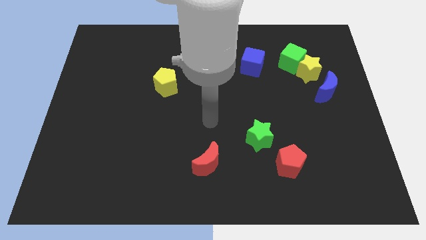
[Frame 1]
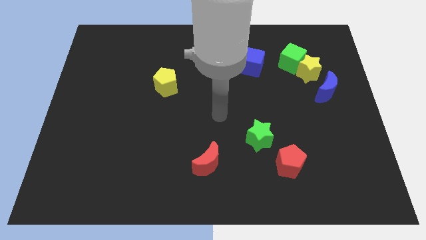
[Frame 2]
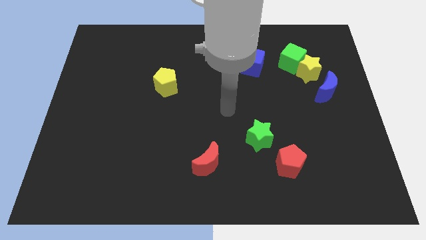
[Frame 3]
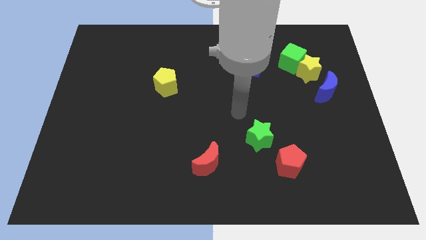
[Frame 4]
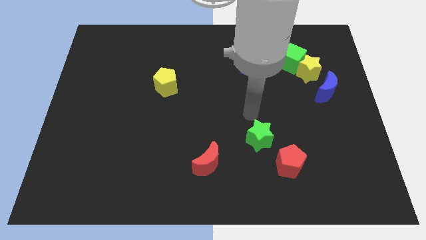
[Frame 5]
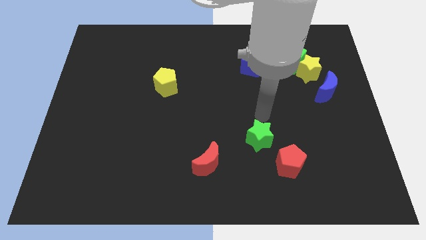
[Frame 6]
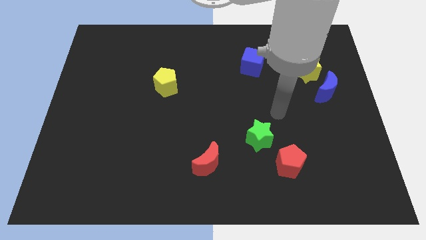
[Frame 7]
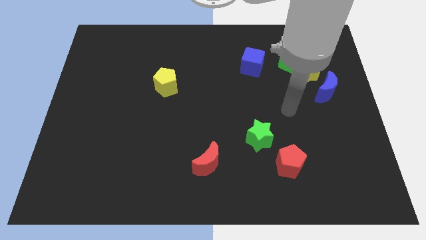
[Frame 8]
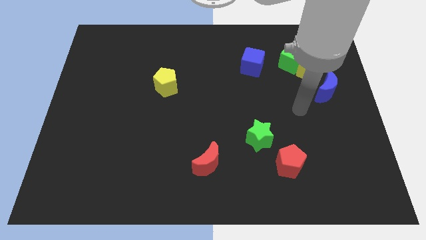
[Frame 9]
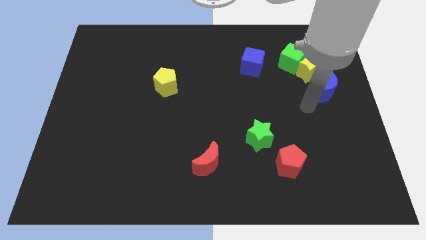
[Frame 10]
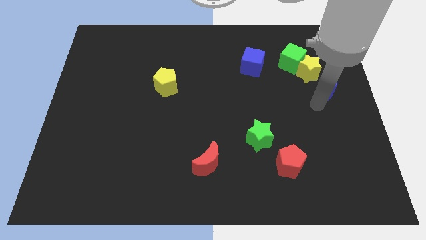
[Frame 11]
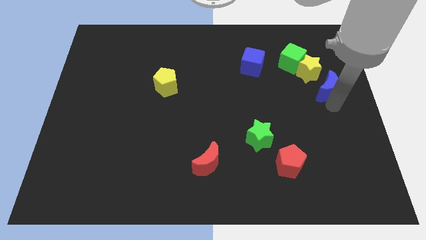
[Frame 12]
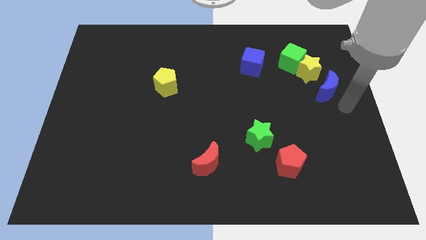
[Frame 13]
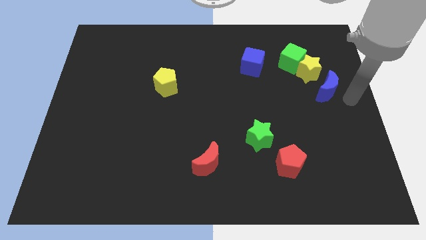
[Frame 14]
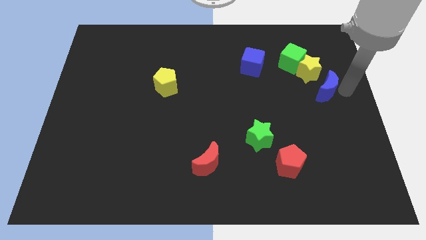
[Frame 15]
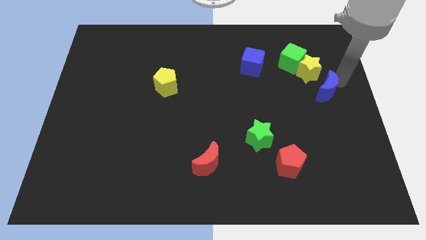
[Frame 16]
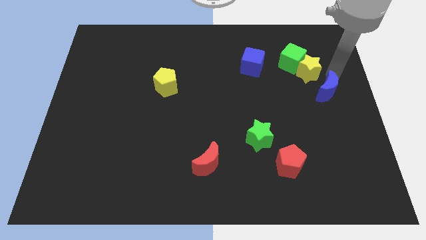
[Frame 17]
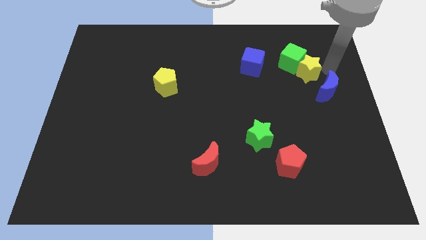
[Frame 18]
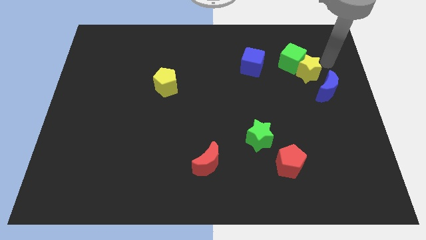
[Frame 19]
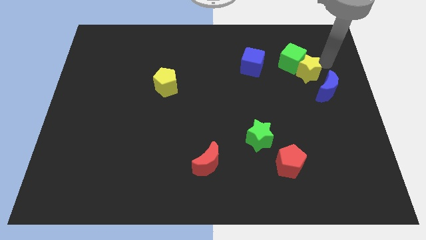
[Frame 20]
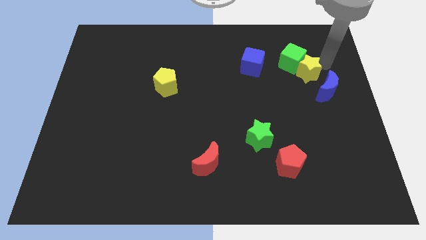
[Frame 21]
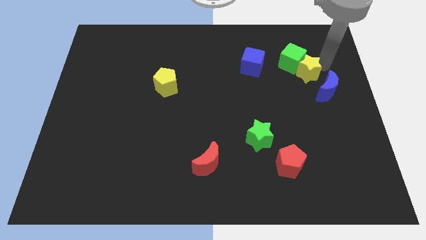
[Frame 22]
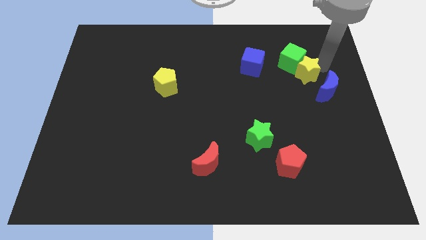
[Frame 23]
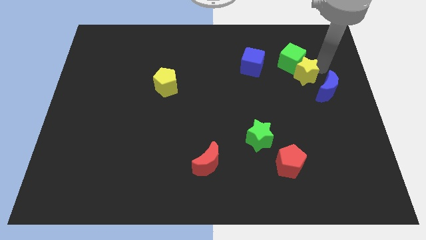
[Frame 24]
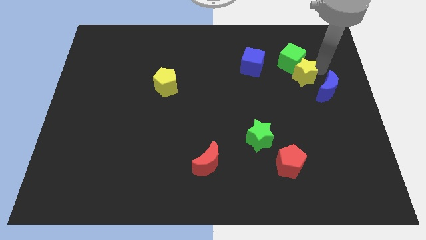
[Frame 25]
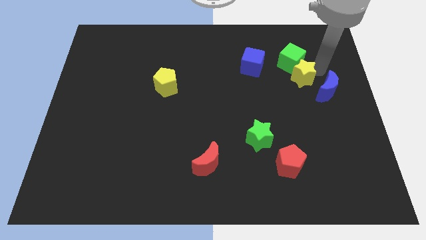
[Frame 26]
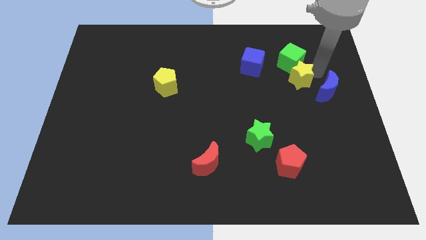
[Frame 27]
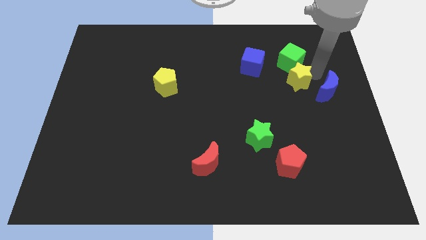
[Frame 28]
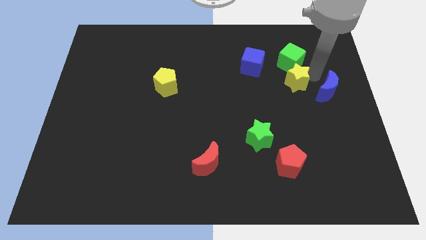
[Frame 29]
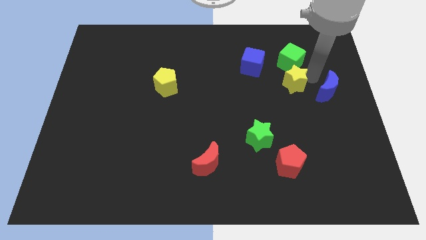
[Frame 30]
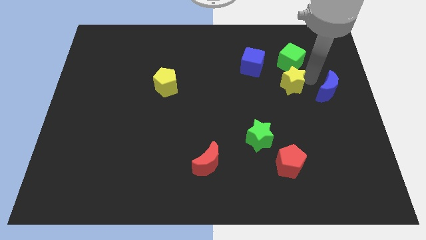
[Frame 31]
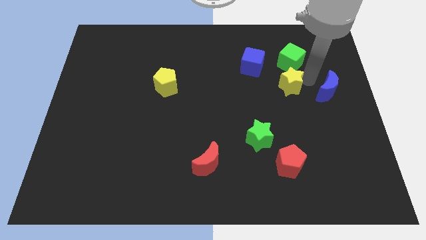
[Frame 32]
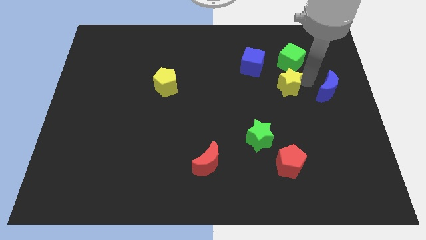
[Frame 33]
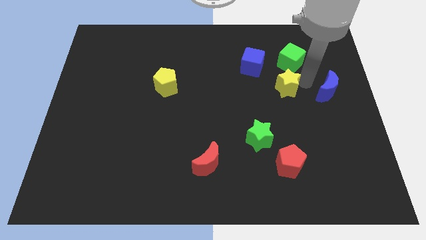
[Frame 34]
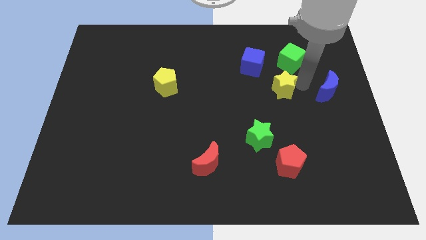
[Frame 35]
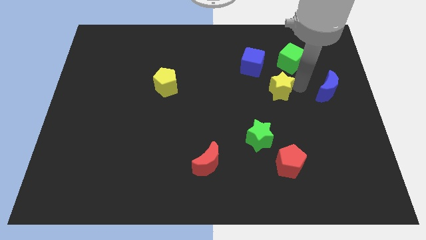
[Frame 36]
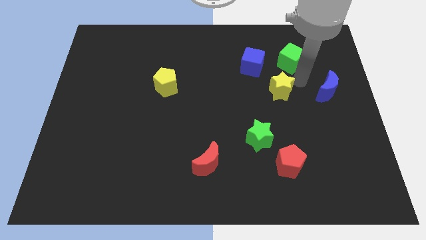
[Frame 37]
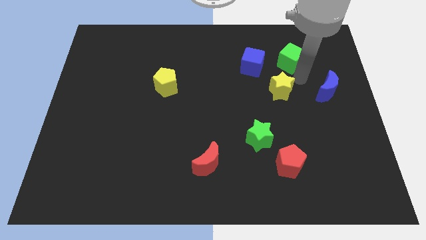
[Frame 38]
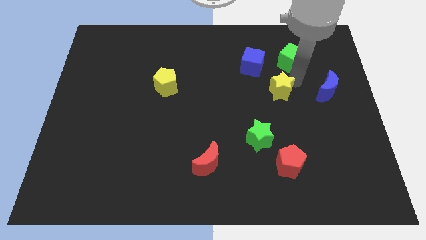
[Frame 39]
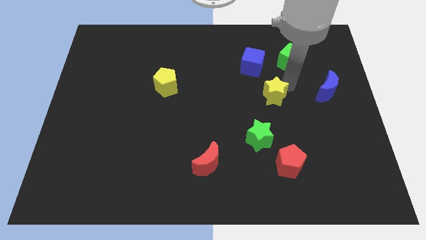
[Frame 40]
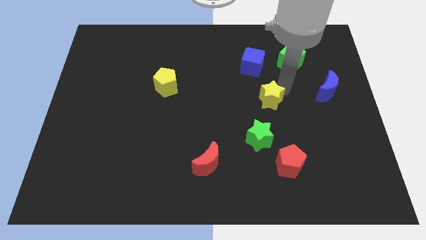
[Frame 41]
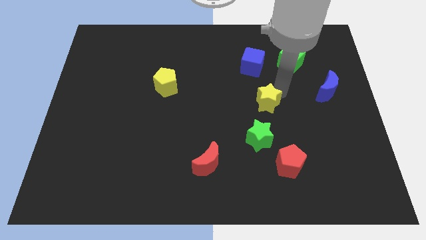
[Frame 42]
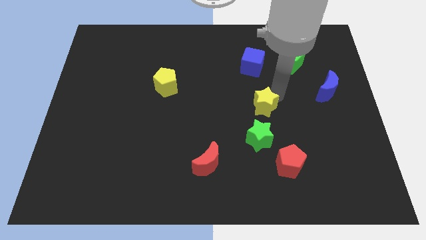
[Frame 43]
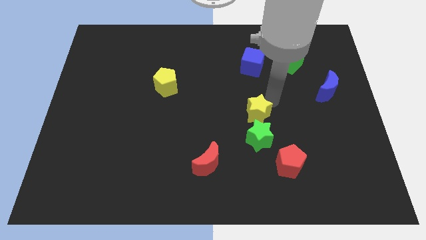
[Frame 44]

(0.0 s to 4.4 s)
put the yellow star diagonally up and to the left of the green star

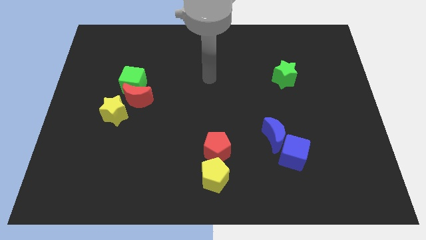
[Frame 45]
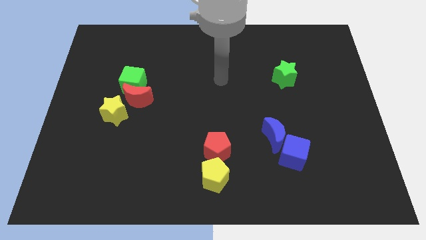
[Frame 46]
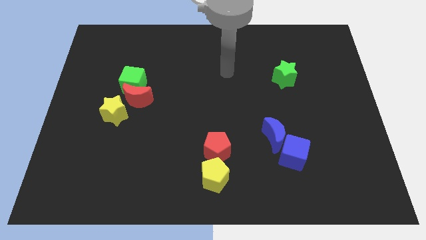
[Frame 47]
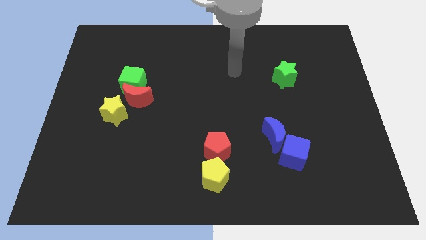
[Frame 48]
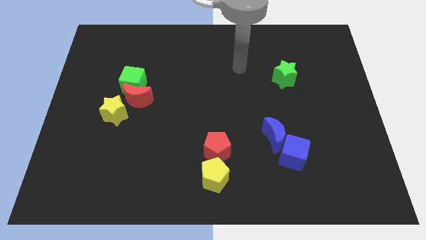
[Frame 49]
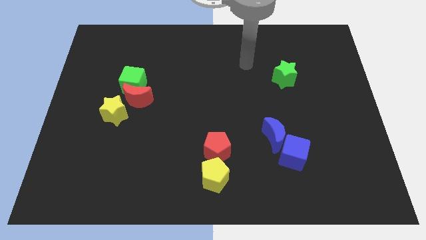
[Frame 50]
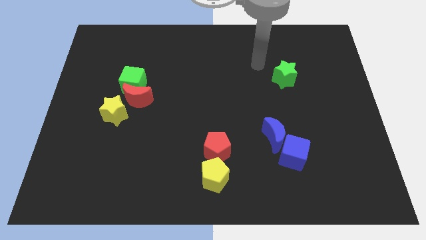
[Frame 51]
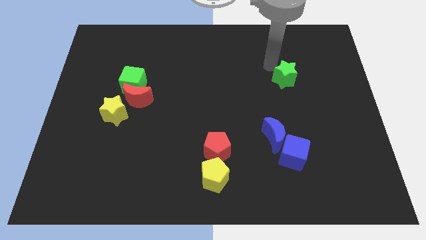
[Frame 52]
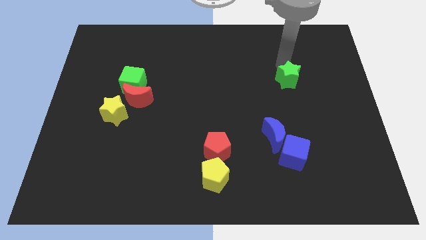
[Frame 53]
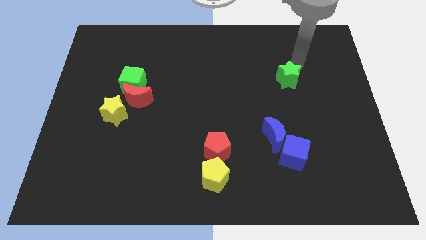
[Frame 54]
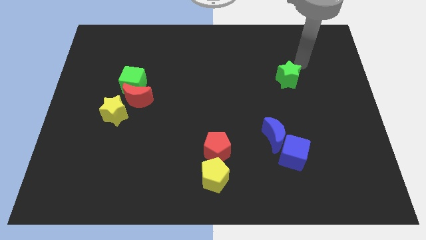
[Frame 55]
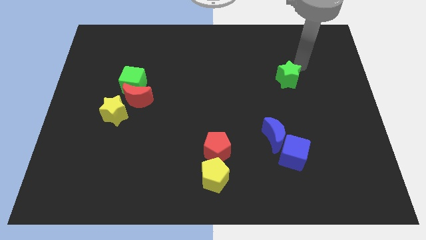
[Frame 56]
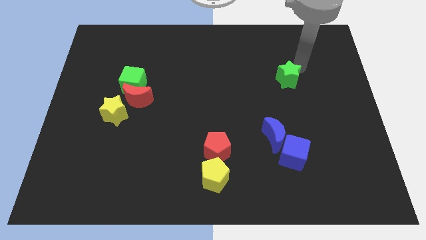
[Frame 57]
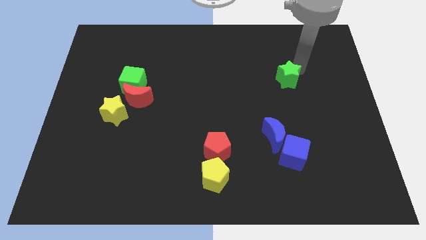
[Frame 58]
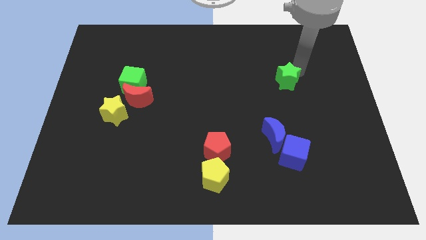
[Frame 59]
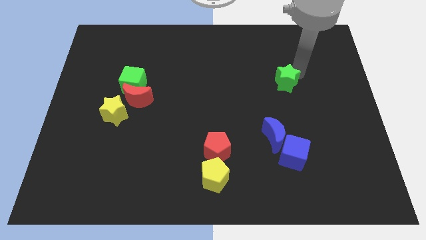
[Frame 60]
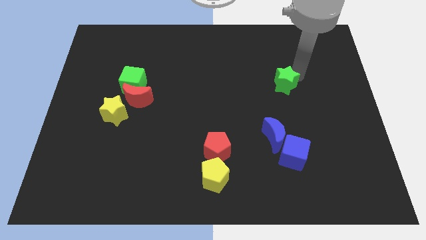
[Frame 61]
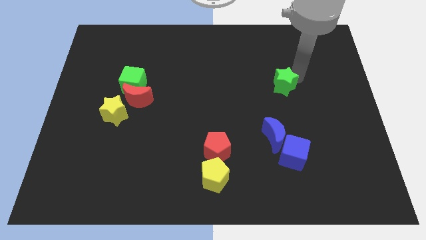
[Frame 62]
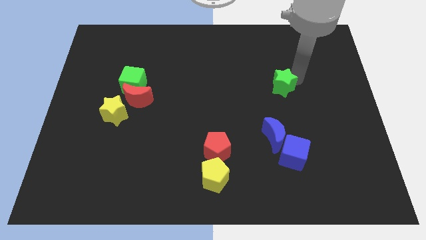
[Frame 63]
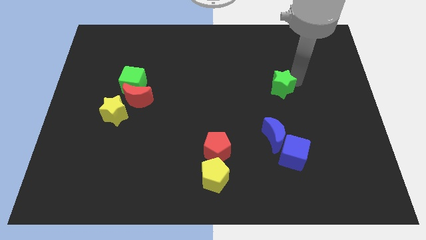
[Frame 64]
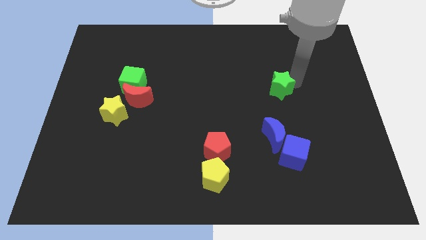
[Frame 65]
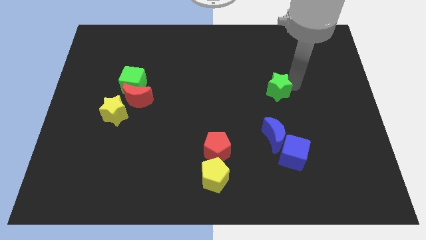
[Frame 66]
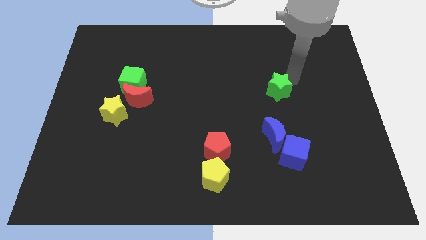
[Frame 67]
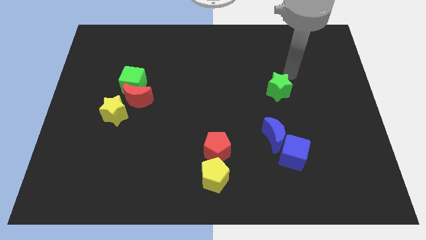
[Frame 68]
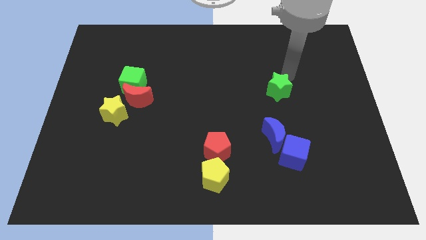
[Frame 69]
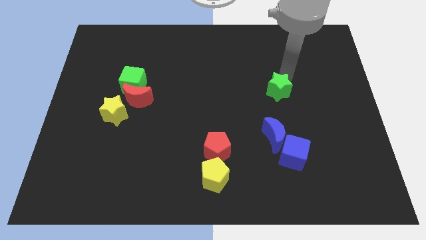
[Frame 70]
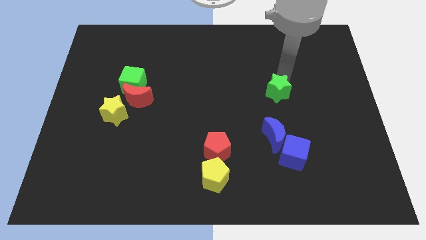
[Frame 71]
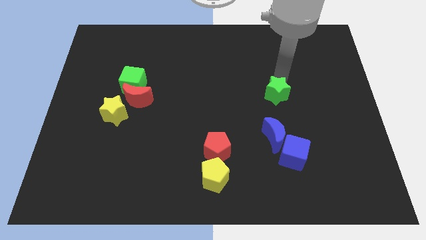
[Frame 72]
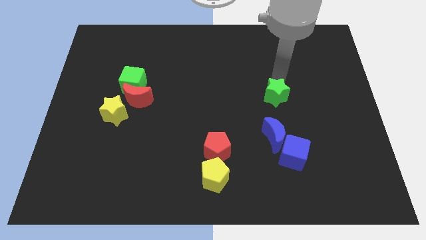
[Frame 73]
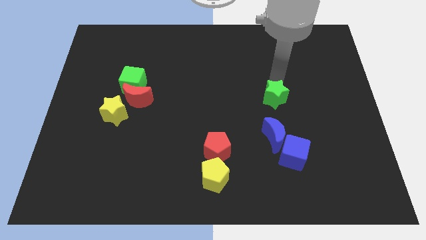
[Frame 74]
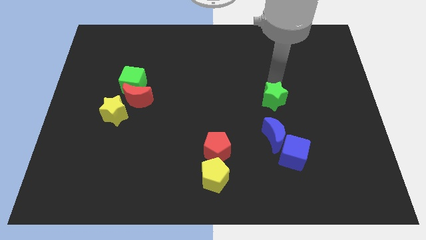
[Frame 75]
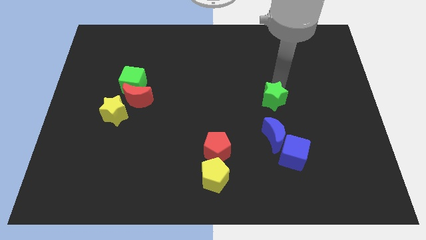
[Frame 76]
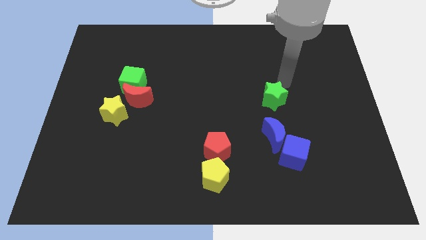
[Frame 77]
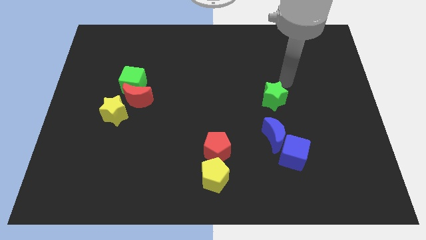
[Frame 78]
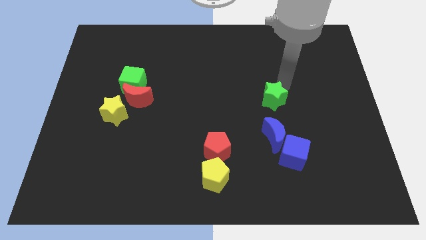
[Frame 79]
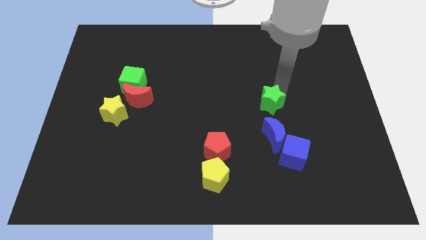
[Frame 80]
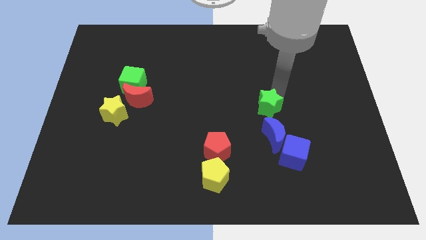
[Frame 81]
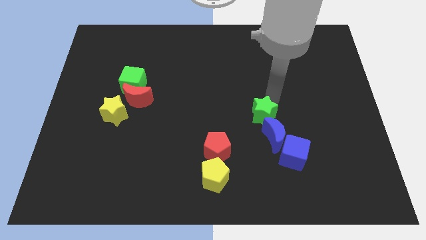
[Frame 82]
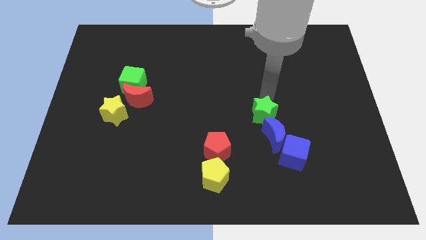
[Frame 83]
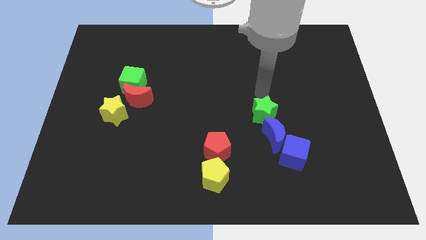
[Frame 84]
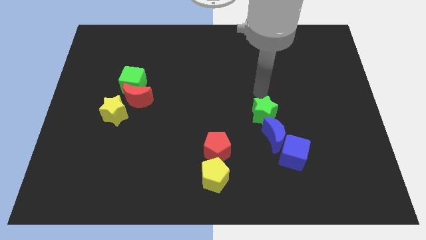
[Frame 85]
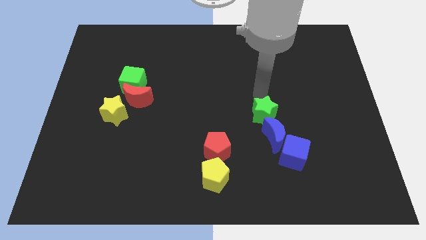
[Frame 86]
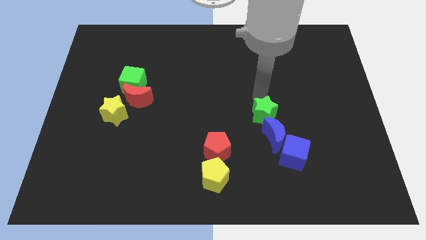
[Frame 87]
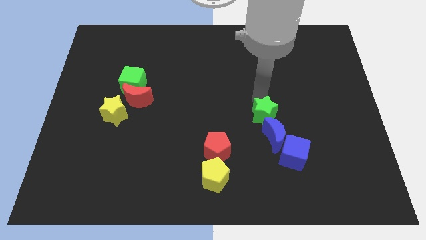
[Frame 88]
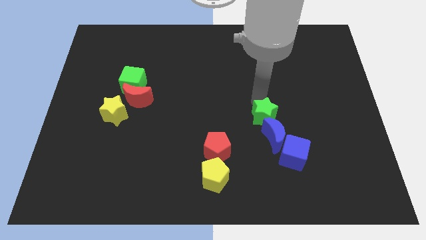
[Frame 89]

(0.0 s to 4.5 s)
move the green star to the top left side of the blue cube
